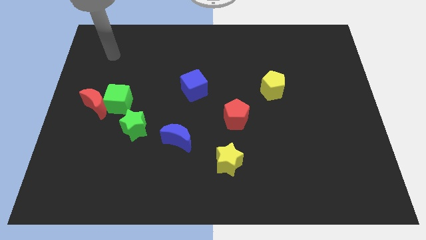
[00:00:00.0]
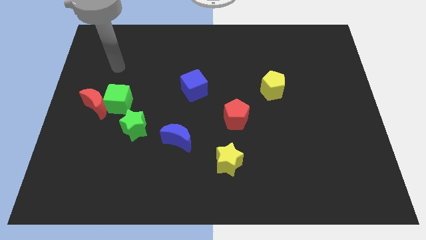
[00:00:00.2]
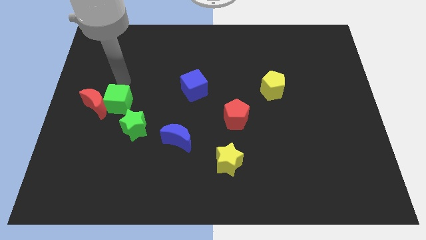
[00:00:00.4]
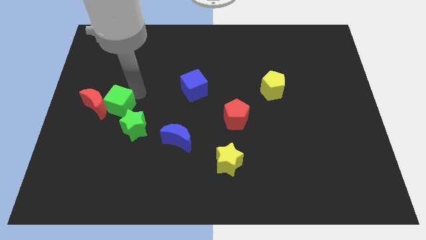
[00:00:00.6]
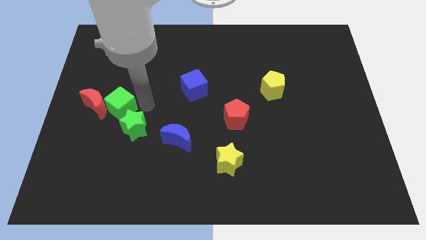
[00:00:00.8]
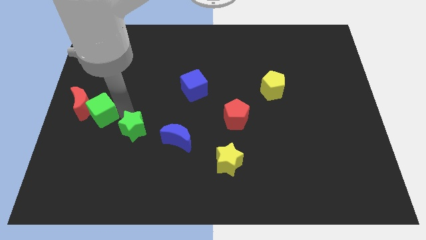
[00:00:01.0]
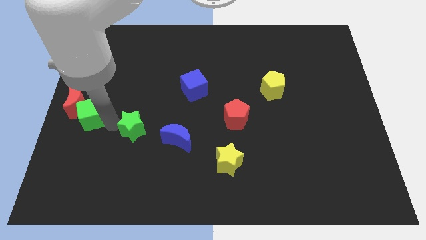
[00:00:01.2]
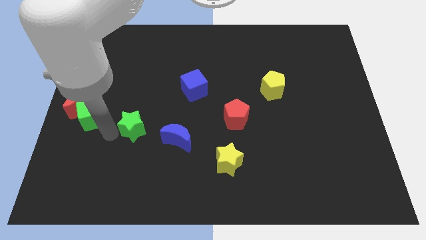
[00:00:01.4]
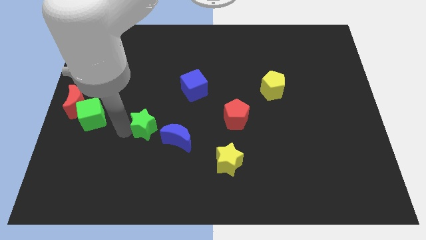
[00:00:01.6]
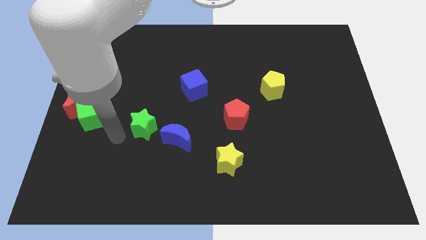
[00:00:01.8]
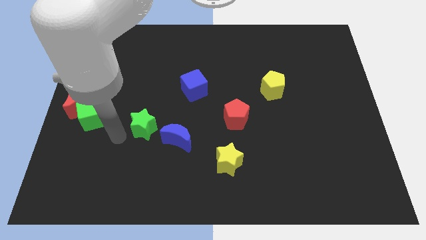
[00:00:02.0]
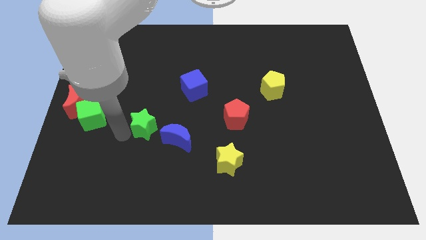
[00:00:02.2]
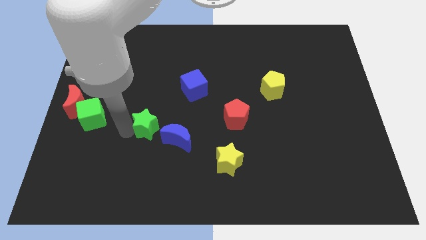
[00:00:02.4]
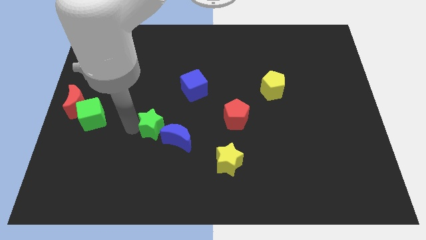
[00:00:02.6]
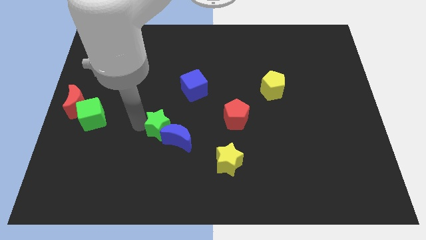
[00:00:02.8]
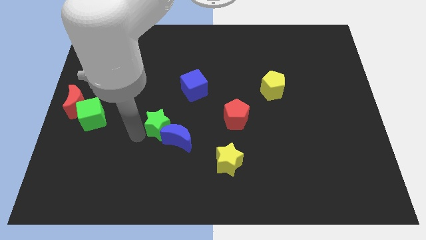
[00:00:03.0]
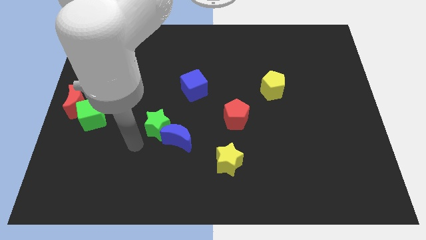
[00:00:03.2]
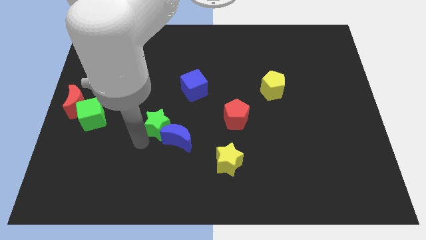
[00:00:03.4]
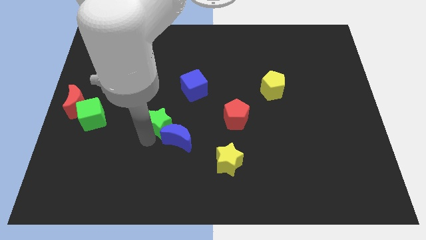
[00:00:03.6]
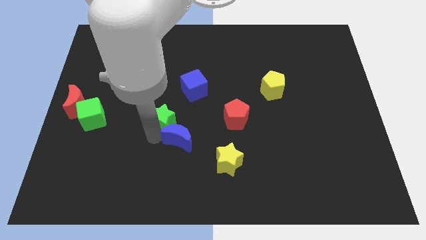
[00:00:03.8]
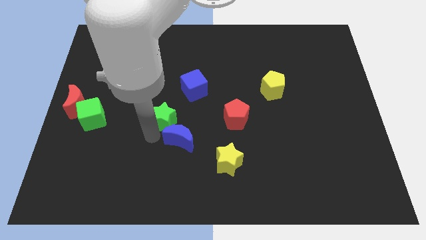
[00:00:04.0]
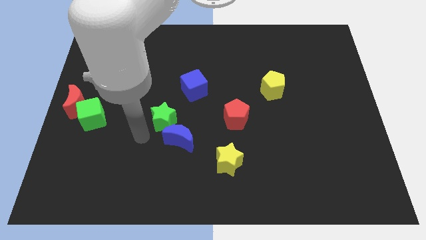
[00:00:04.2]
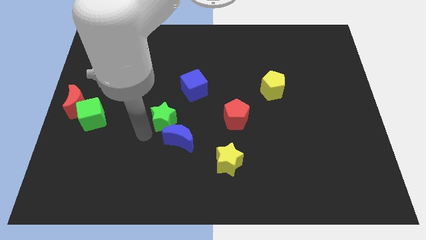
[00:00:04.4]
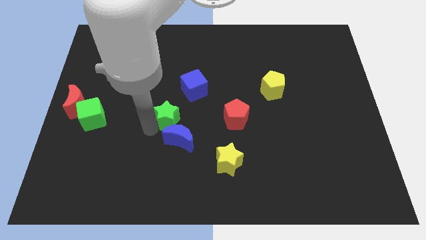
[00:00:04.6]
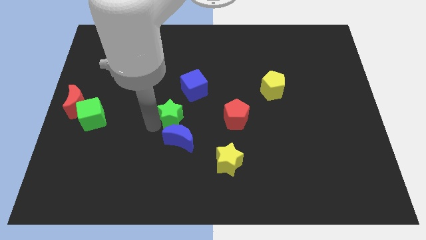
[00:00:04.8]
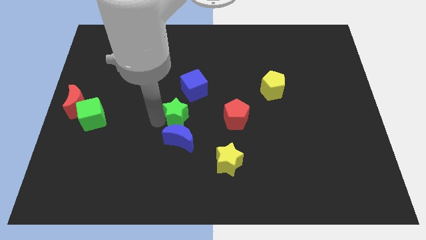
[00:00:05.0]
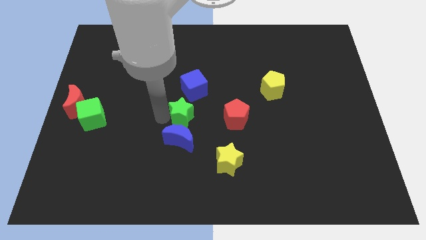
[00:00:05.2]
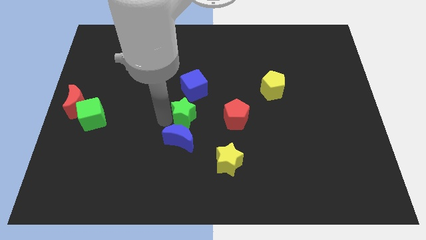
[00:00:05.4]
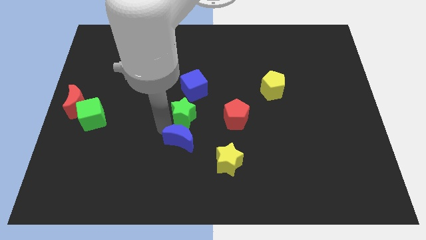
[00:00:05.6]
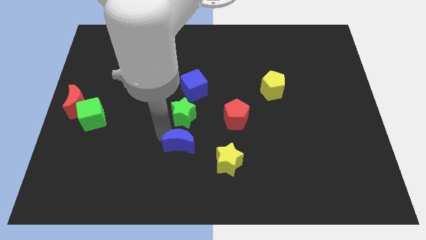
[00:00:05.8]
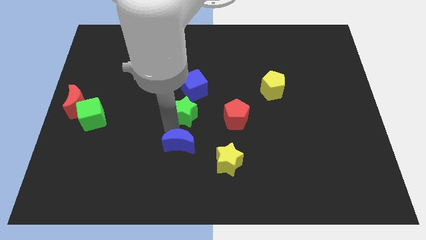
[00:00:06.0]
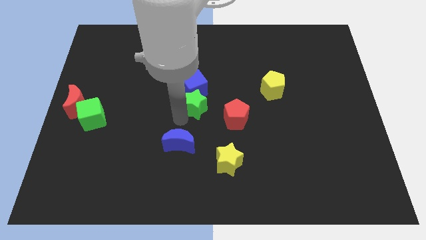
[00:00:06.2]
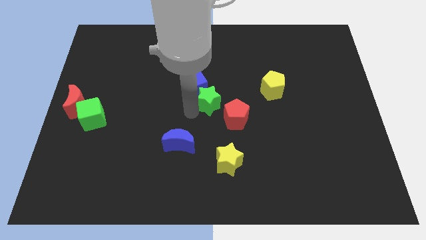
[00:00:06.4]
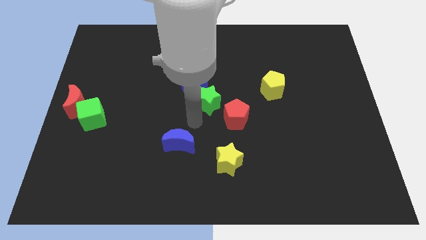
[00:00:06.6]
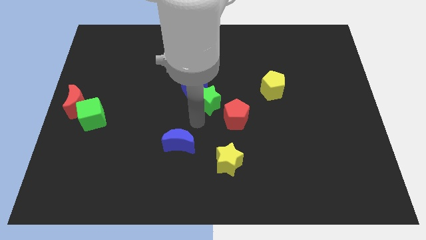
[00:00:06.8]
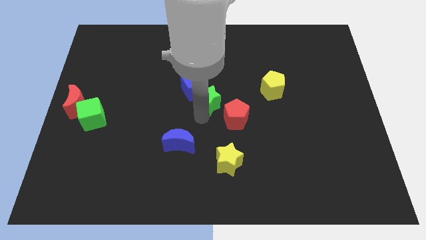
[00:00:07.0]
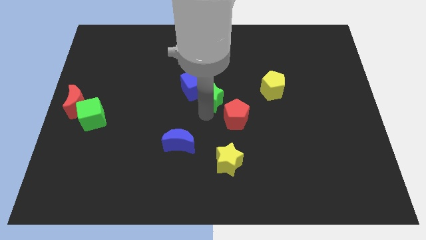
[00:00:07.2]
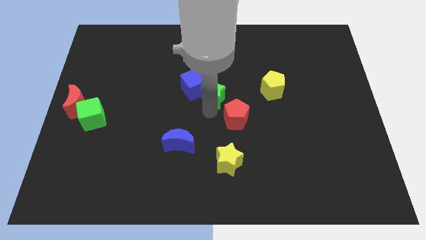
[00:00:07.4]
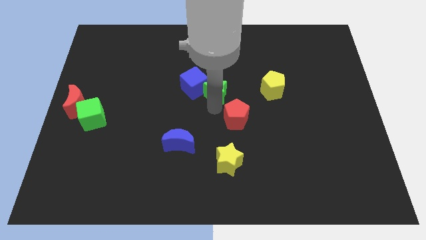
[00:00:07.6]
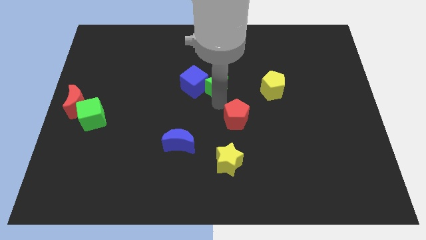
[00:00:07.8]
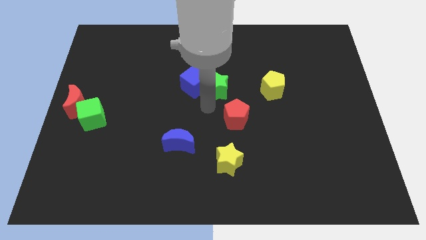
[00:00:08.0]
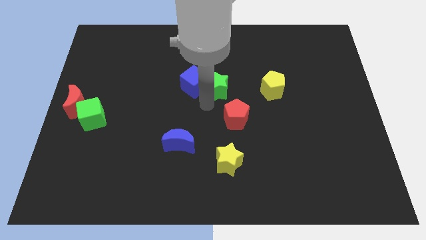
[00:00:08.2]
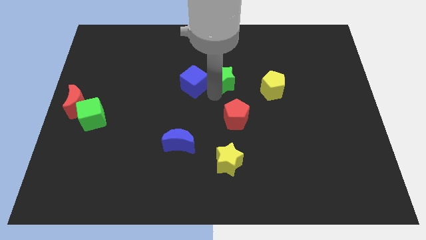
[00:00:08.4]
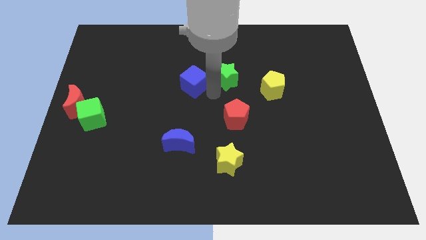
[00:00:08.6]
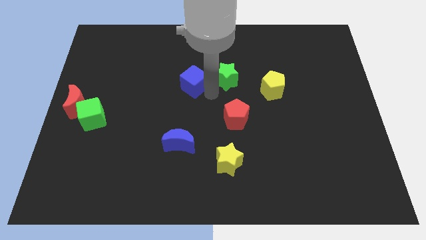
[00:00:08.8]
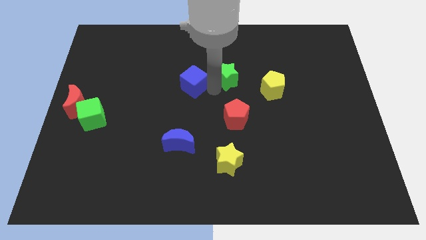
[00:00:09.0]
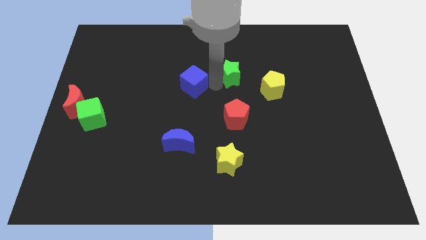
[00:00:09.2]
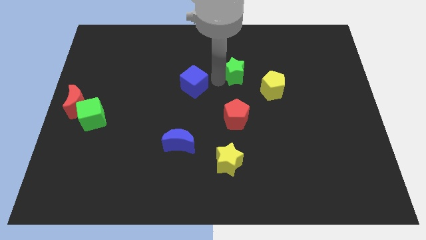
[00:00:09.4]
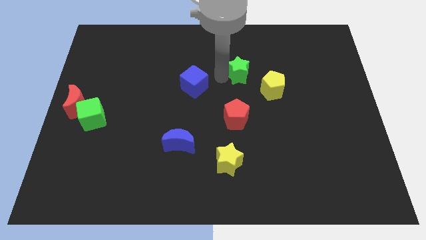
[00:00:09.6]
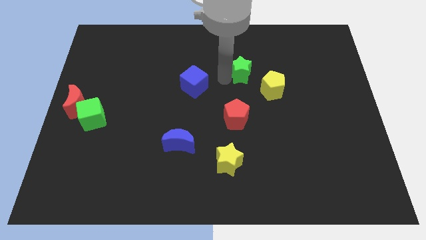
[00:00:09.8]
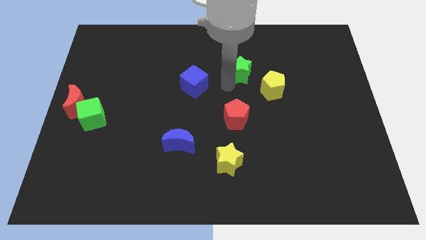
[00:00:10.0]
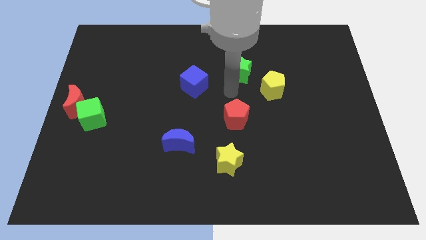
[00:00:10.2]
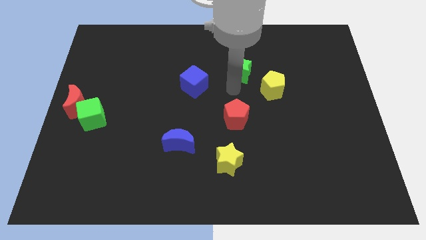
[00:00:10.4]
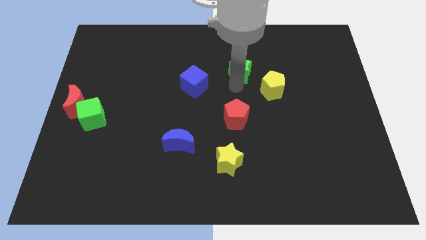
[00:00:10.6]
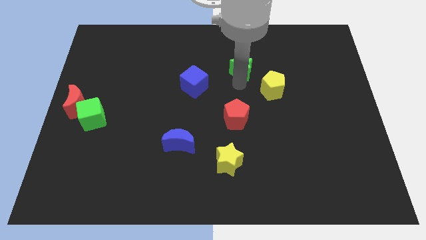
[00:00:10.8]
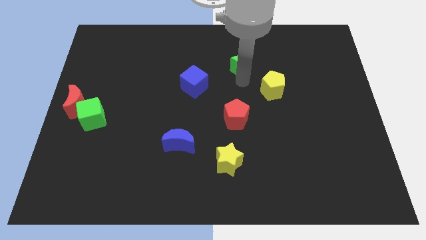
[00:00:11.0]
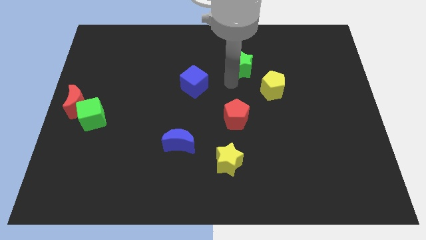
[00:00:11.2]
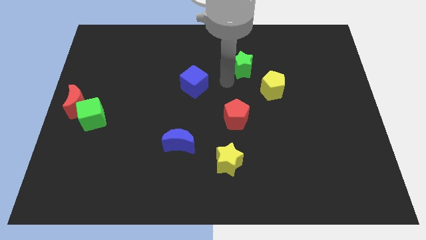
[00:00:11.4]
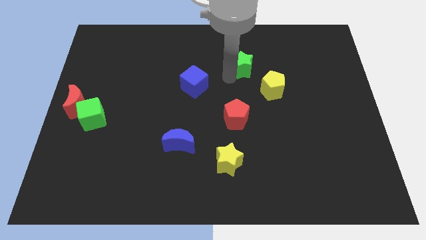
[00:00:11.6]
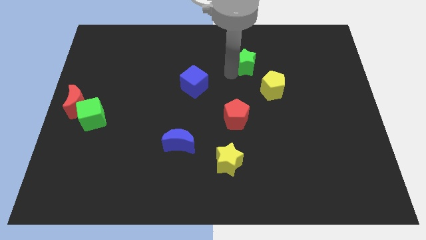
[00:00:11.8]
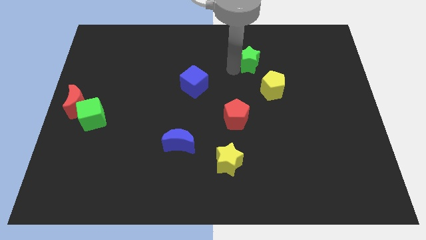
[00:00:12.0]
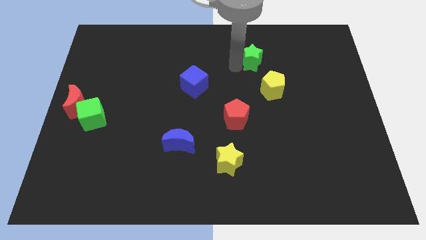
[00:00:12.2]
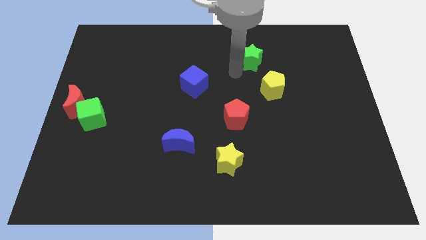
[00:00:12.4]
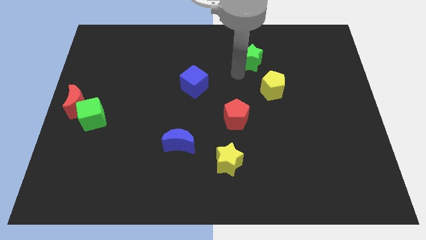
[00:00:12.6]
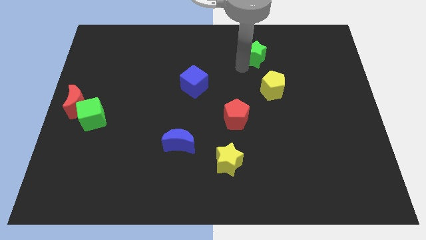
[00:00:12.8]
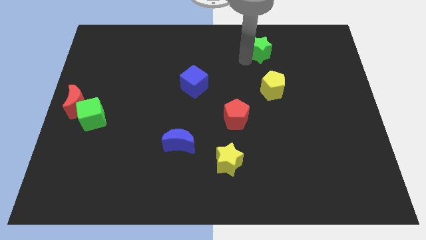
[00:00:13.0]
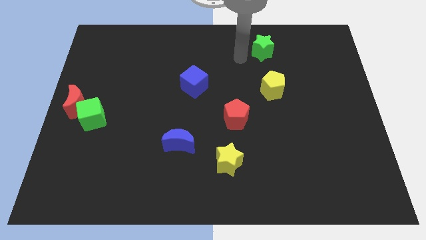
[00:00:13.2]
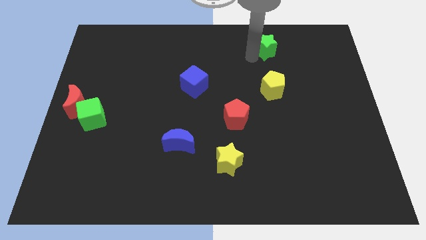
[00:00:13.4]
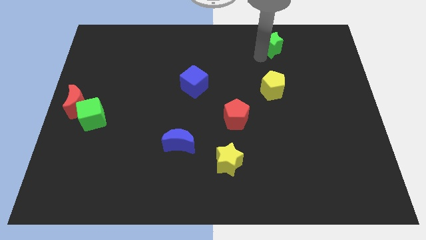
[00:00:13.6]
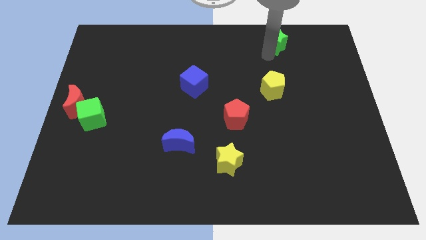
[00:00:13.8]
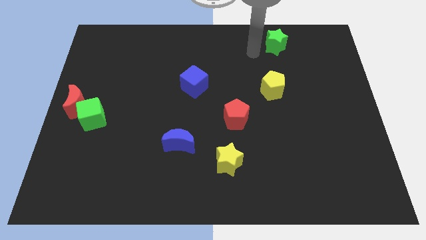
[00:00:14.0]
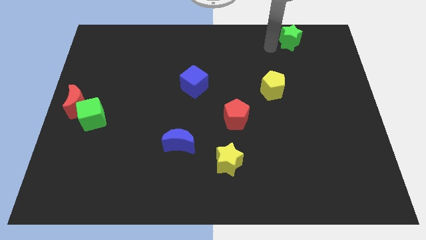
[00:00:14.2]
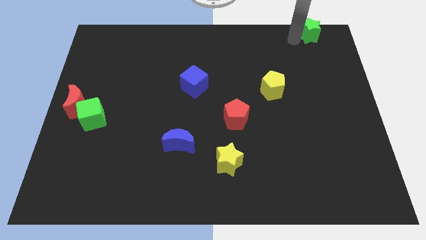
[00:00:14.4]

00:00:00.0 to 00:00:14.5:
push the green star to the top right of the board
